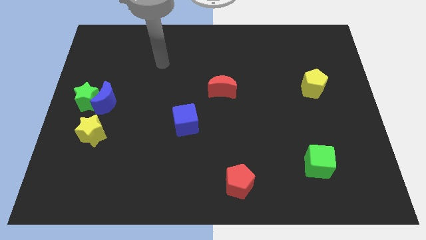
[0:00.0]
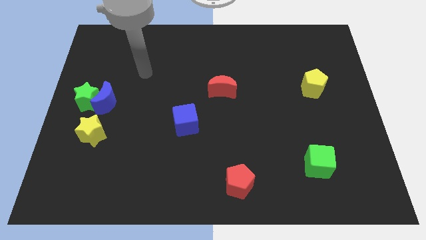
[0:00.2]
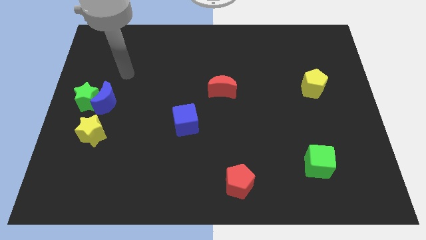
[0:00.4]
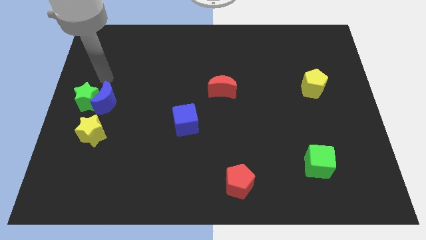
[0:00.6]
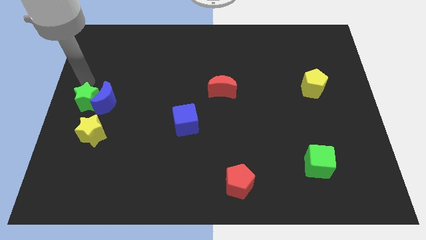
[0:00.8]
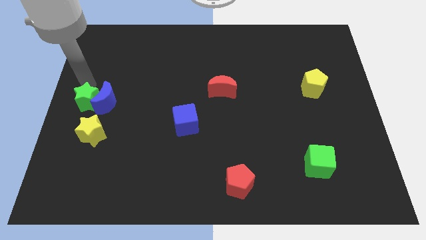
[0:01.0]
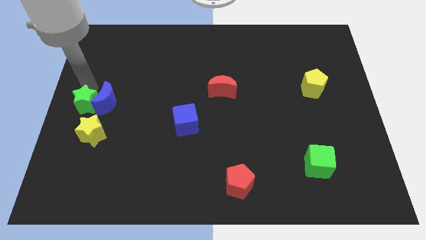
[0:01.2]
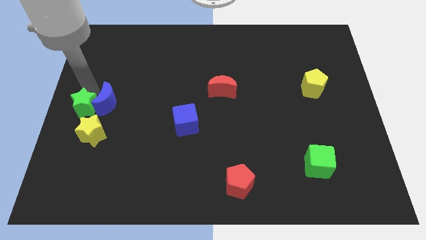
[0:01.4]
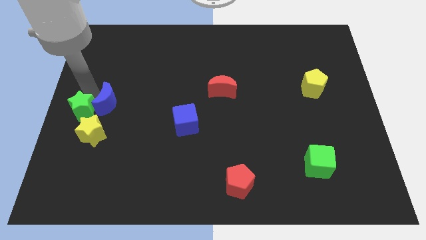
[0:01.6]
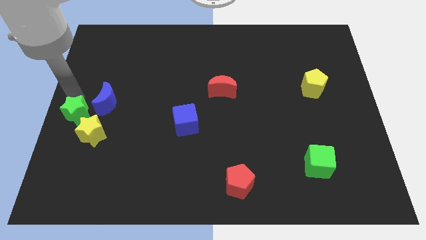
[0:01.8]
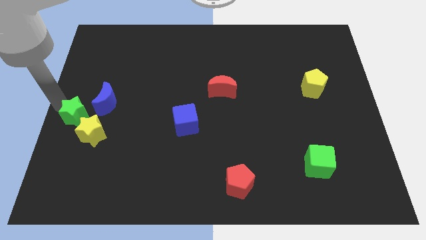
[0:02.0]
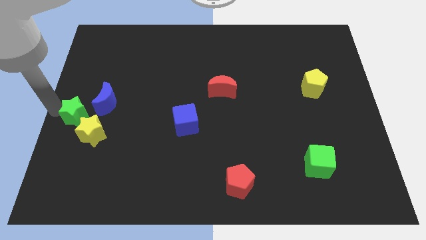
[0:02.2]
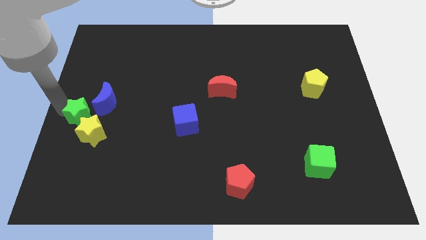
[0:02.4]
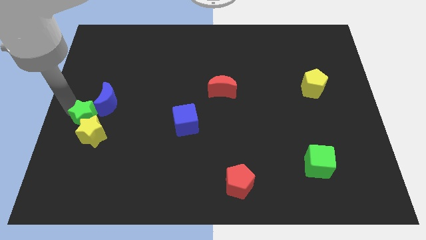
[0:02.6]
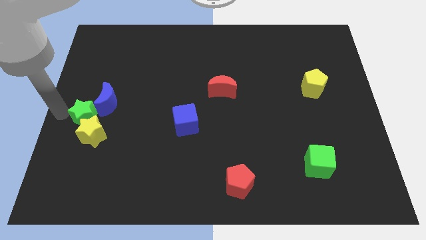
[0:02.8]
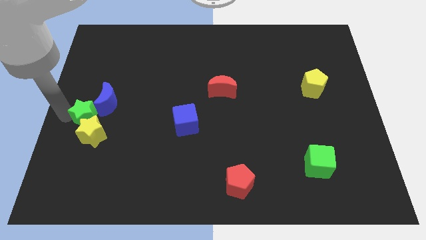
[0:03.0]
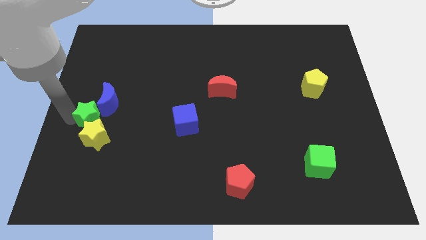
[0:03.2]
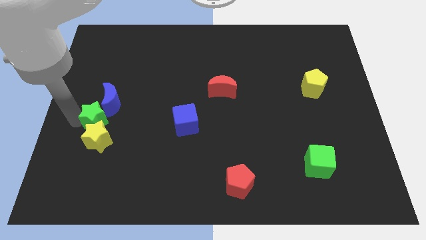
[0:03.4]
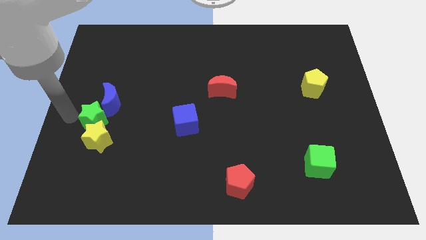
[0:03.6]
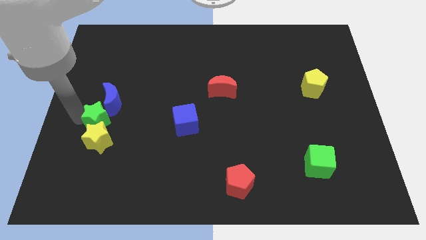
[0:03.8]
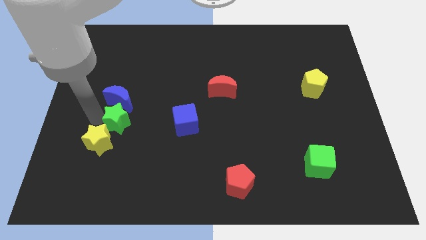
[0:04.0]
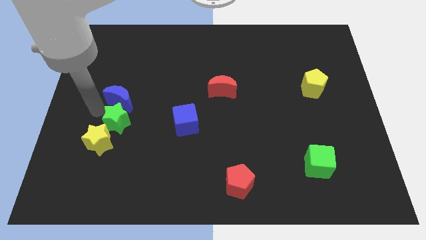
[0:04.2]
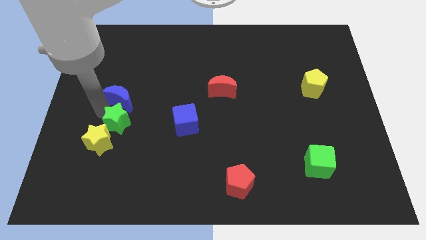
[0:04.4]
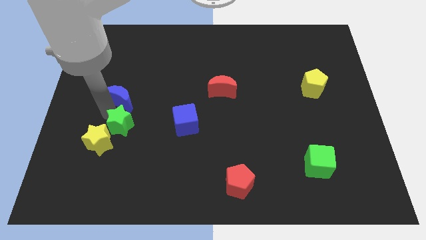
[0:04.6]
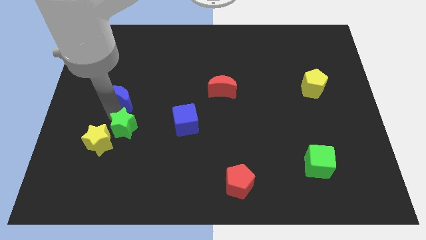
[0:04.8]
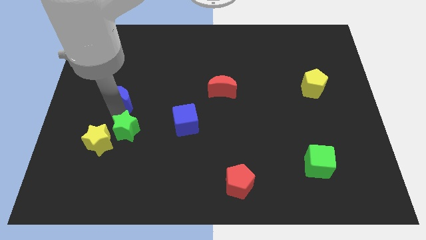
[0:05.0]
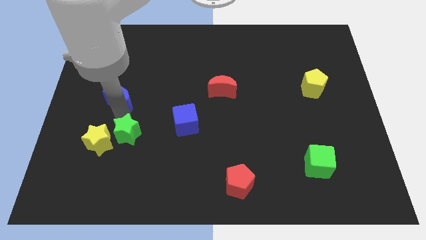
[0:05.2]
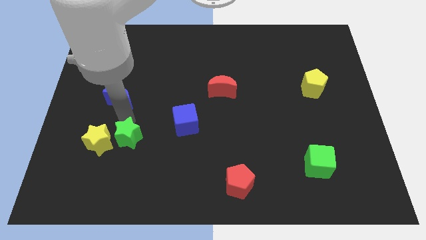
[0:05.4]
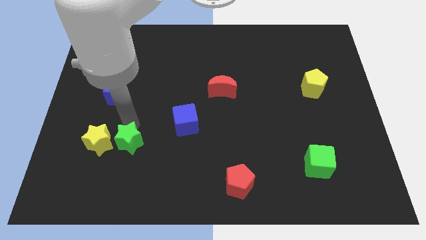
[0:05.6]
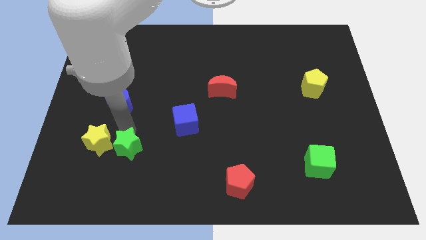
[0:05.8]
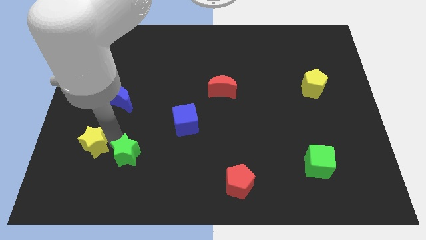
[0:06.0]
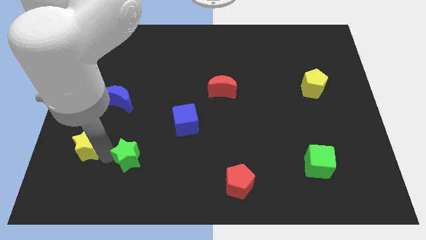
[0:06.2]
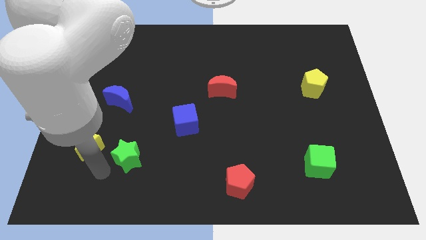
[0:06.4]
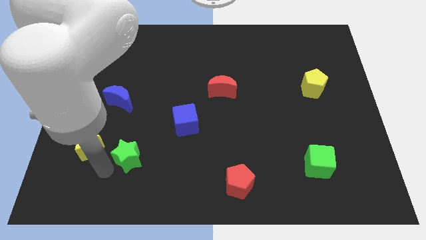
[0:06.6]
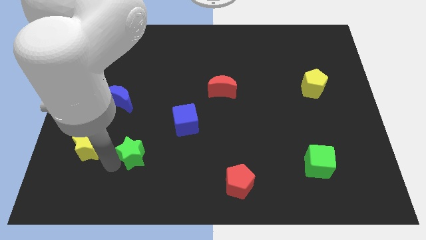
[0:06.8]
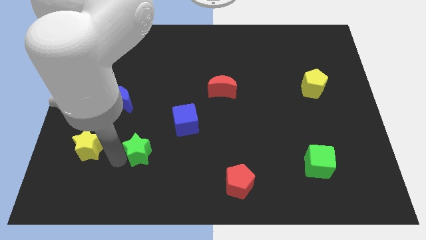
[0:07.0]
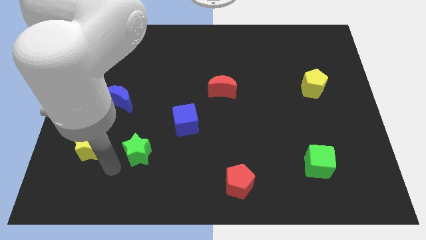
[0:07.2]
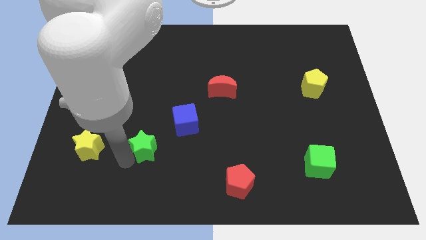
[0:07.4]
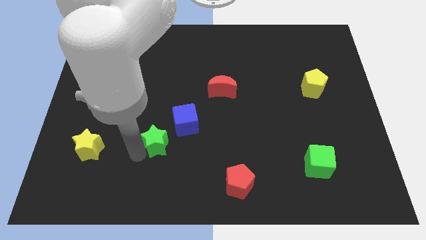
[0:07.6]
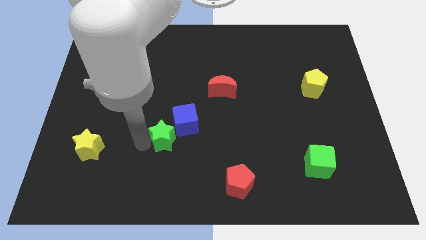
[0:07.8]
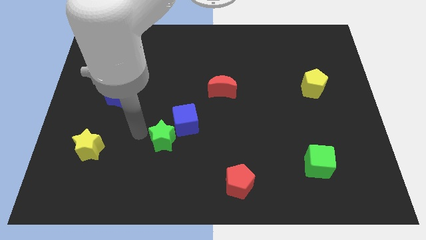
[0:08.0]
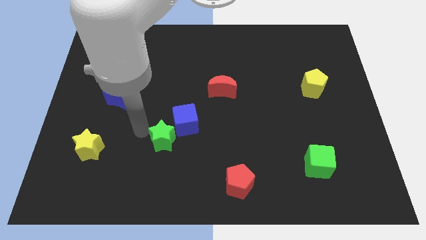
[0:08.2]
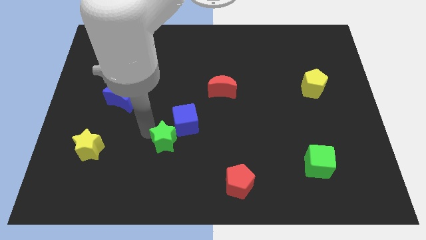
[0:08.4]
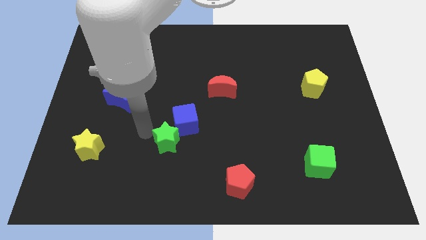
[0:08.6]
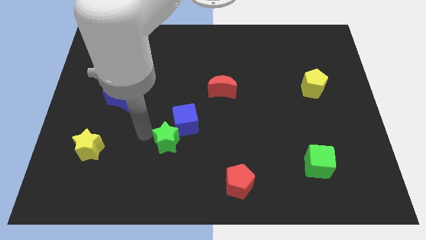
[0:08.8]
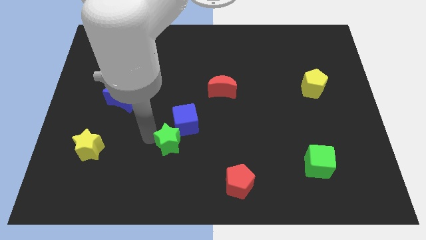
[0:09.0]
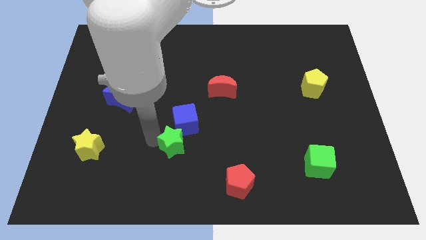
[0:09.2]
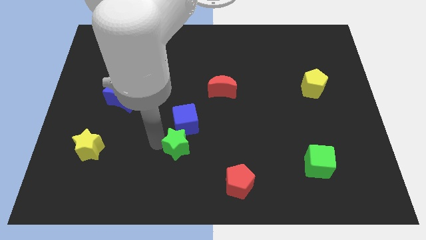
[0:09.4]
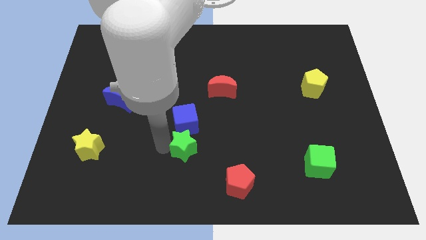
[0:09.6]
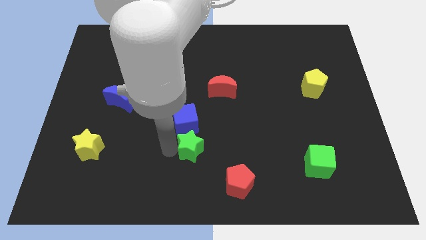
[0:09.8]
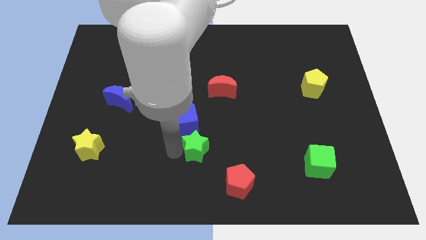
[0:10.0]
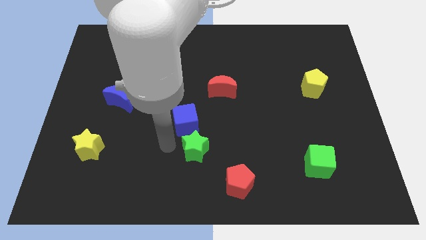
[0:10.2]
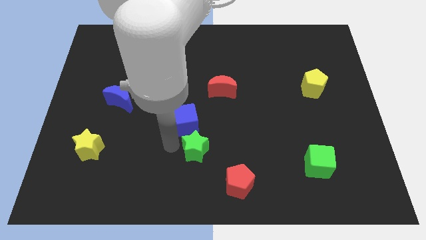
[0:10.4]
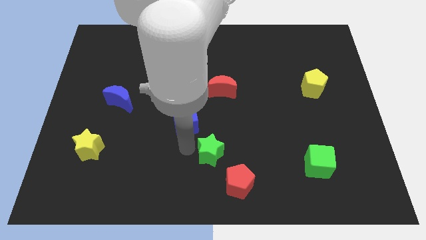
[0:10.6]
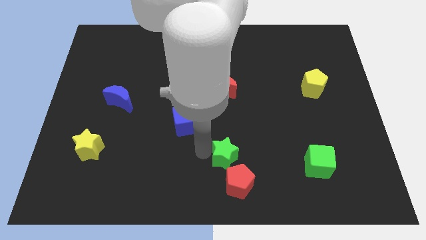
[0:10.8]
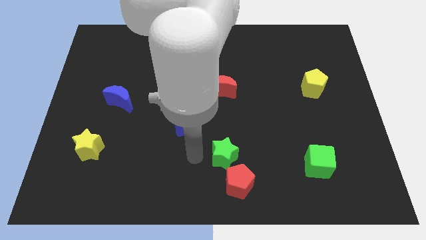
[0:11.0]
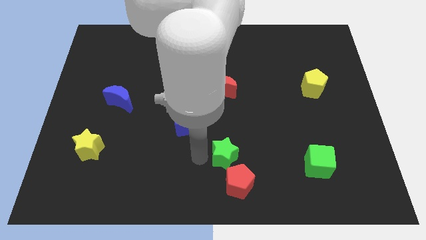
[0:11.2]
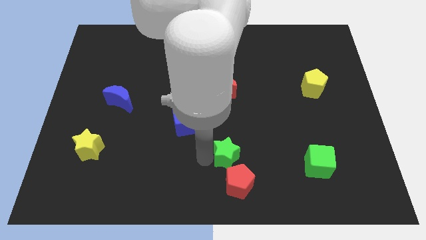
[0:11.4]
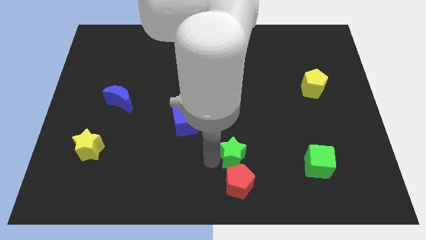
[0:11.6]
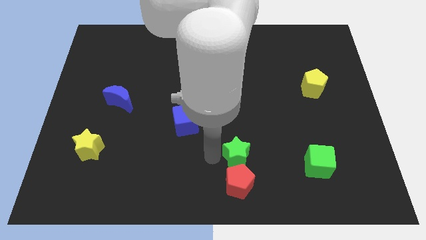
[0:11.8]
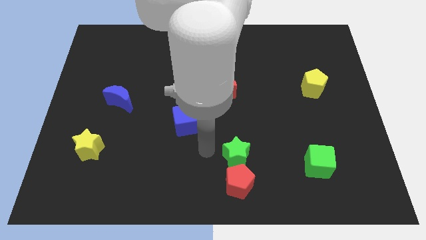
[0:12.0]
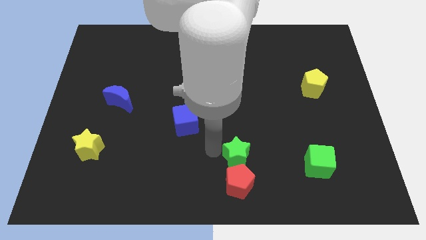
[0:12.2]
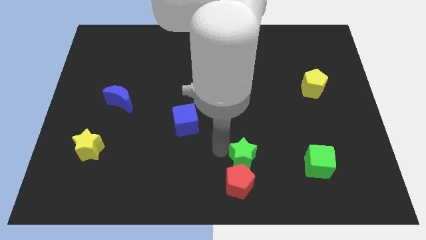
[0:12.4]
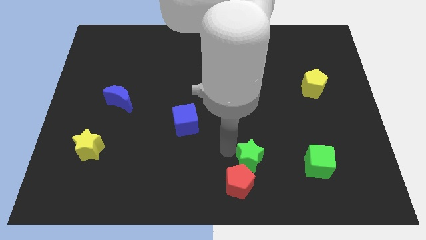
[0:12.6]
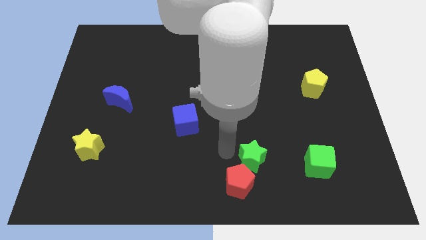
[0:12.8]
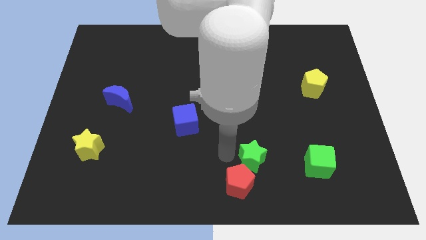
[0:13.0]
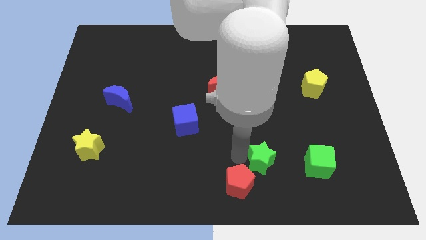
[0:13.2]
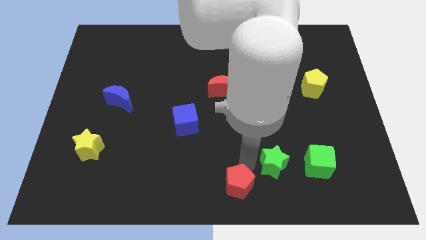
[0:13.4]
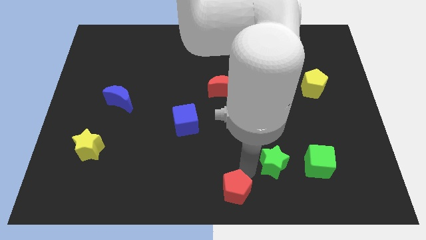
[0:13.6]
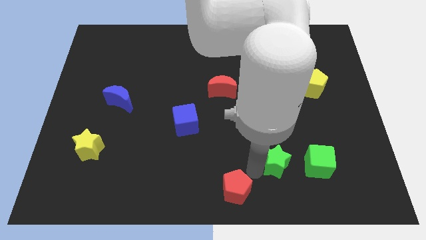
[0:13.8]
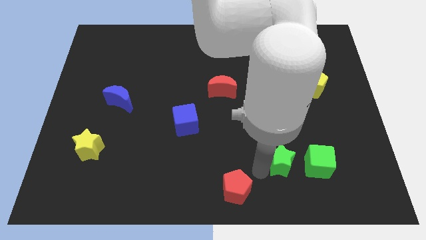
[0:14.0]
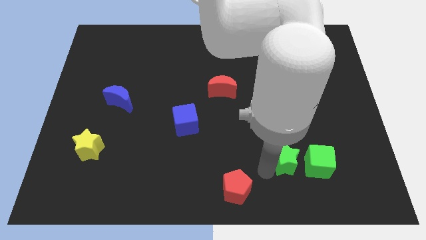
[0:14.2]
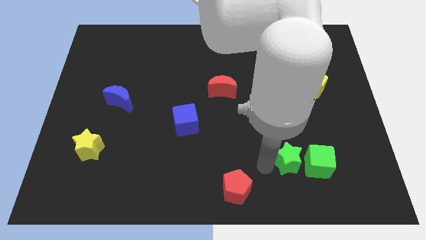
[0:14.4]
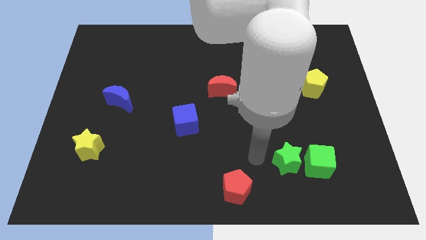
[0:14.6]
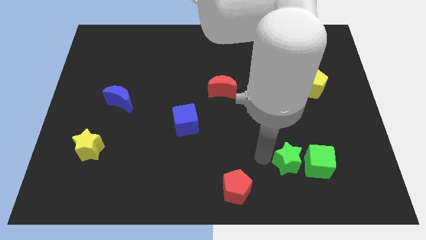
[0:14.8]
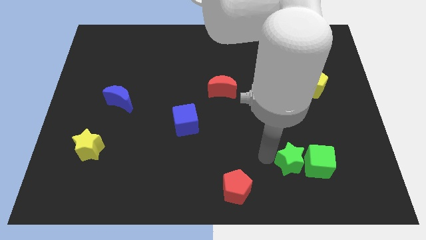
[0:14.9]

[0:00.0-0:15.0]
push the green star close to the green cube

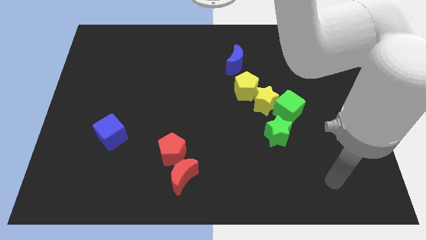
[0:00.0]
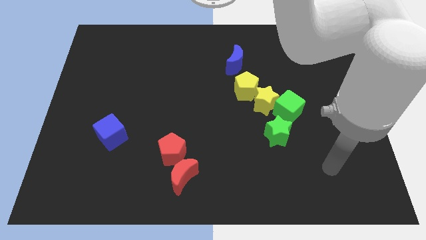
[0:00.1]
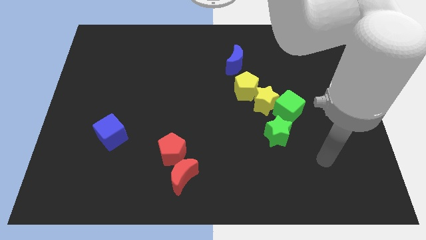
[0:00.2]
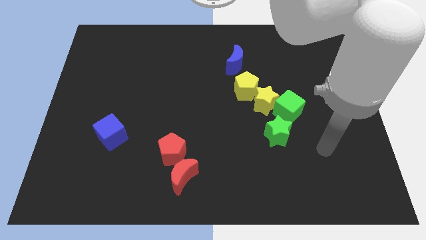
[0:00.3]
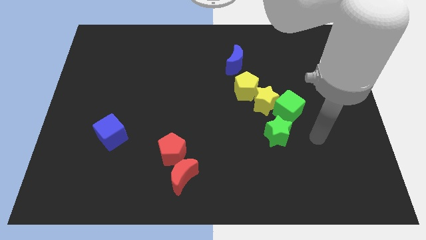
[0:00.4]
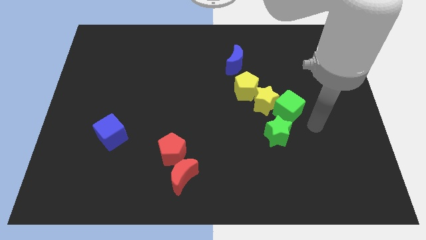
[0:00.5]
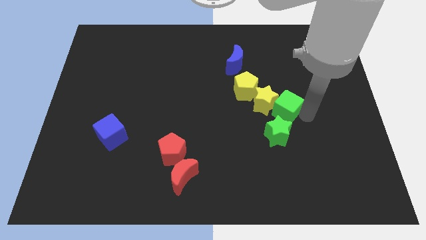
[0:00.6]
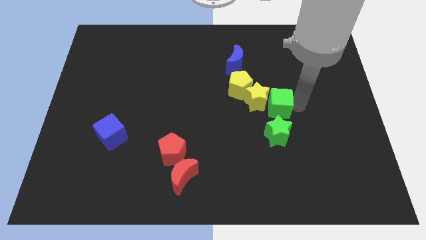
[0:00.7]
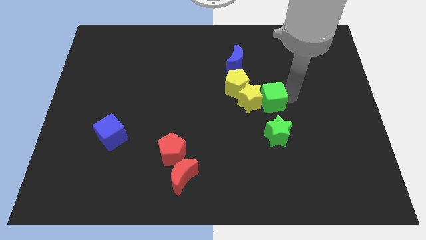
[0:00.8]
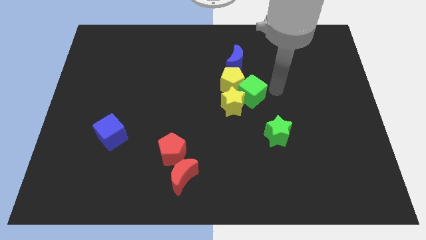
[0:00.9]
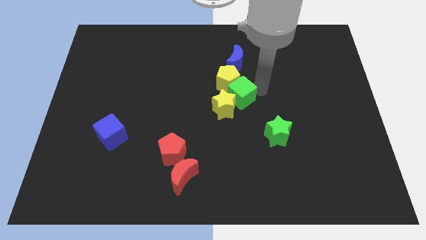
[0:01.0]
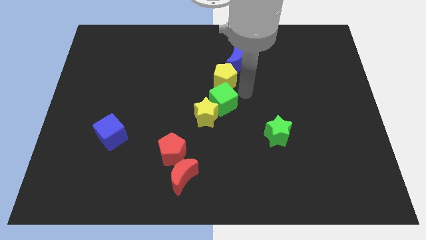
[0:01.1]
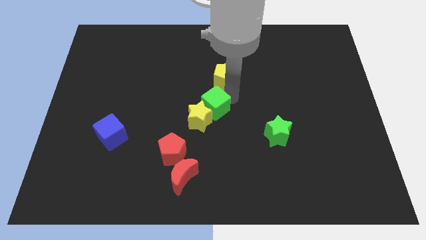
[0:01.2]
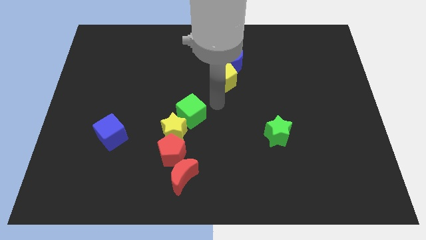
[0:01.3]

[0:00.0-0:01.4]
push the yellow star close to the red pentagon
